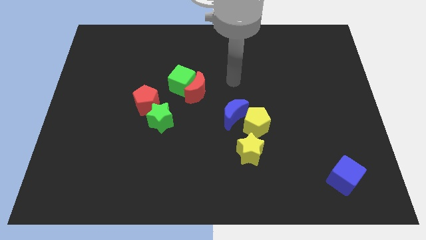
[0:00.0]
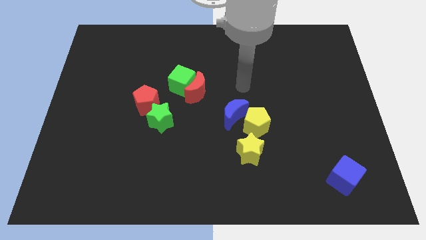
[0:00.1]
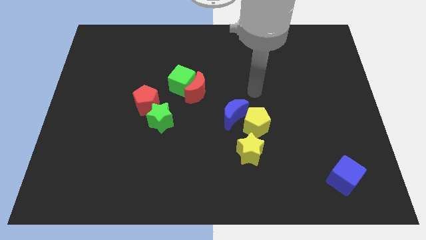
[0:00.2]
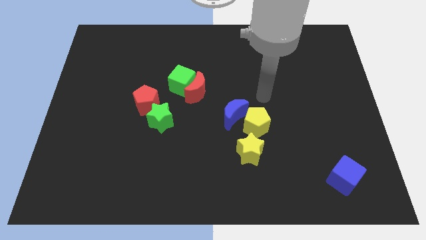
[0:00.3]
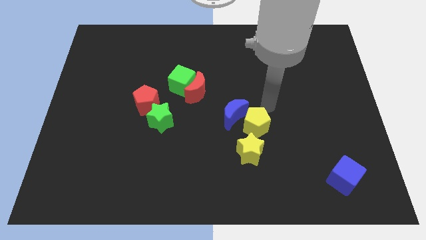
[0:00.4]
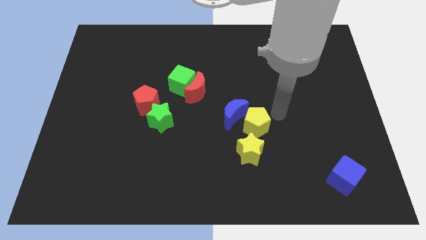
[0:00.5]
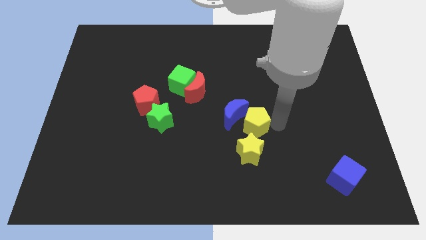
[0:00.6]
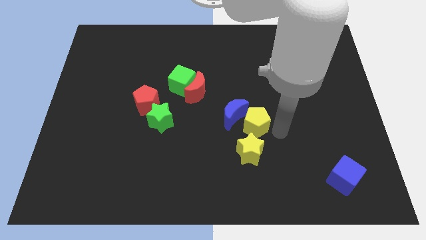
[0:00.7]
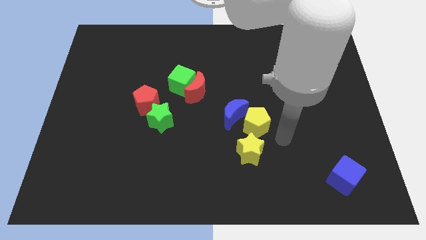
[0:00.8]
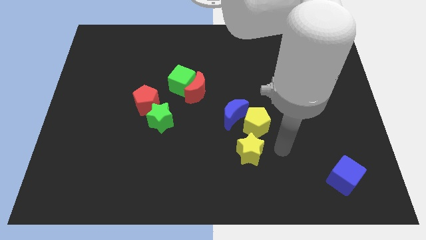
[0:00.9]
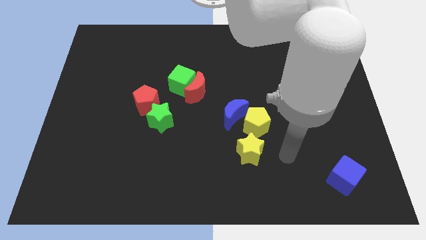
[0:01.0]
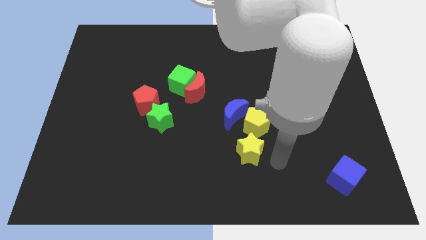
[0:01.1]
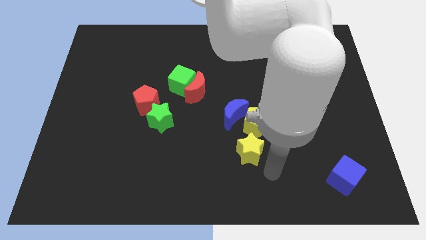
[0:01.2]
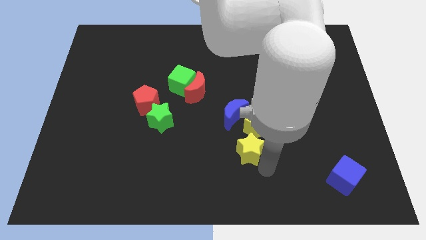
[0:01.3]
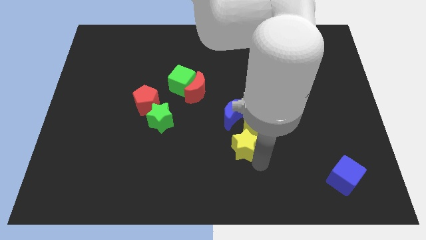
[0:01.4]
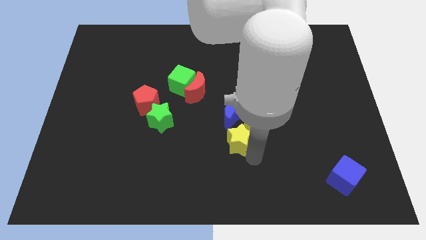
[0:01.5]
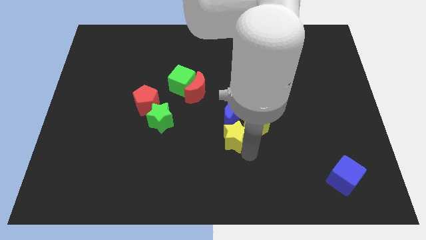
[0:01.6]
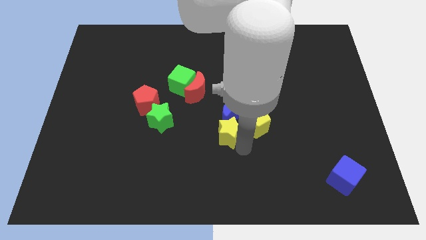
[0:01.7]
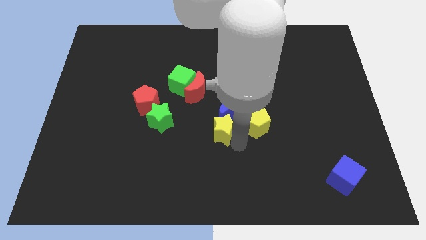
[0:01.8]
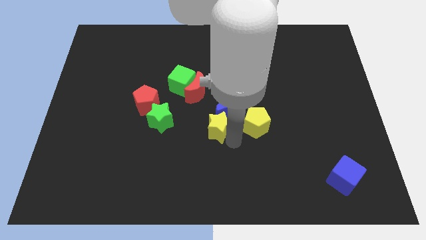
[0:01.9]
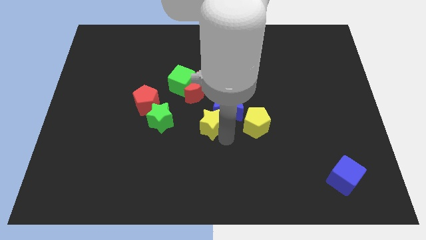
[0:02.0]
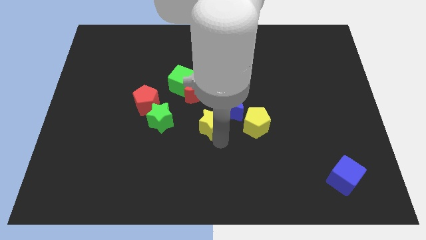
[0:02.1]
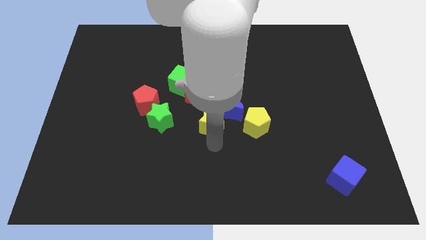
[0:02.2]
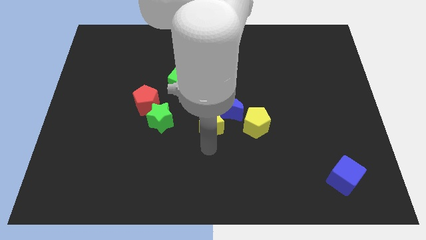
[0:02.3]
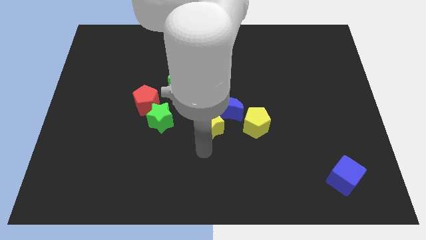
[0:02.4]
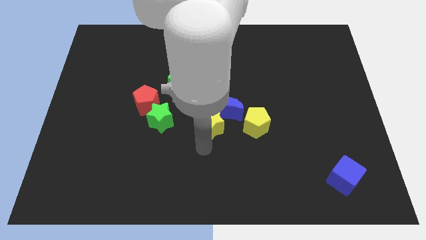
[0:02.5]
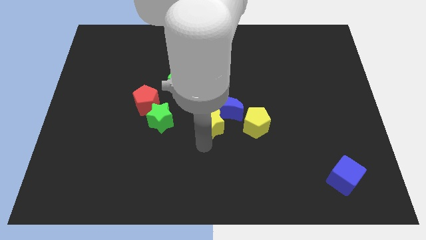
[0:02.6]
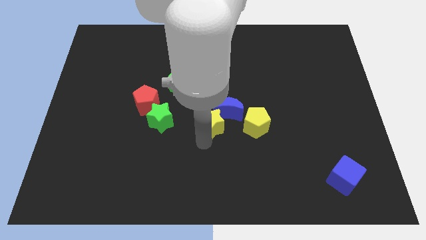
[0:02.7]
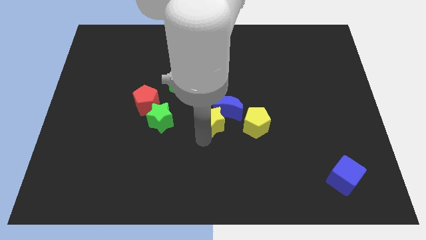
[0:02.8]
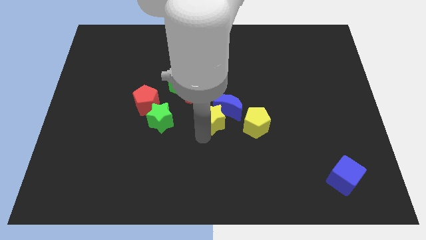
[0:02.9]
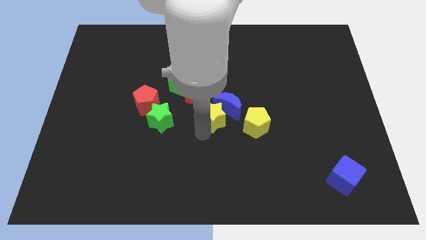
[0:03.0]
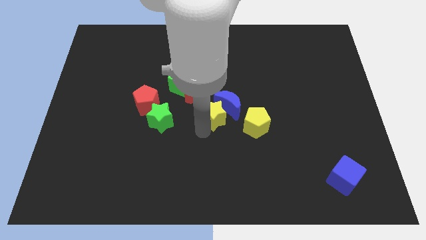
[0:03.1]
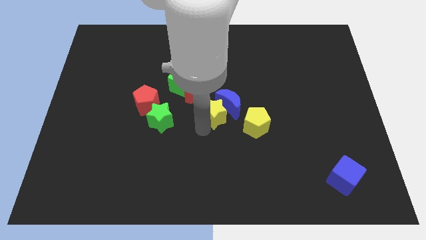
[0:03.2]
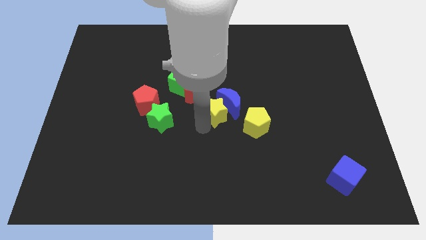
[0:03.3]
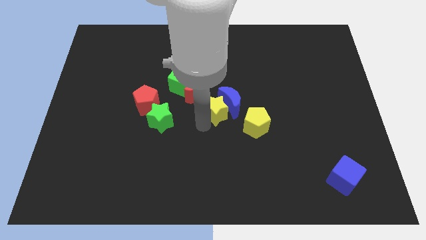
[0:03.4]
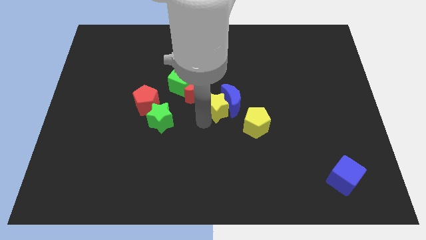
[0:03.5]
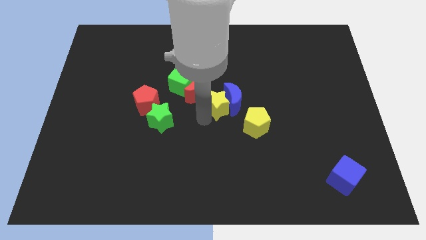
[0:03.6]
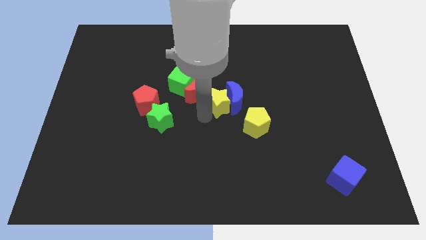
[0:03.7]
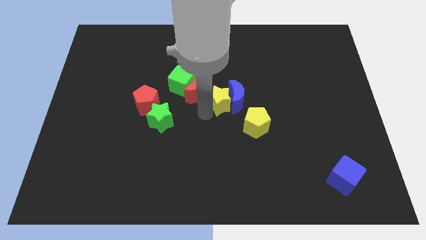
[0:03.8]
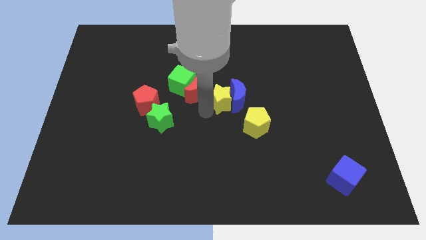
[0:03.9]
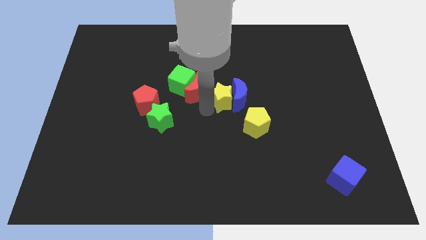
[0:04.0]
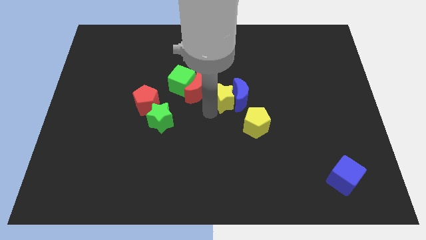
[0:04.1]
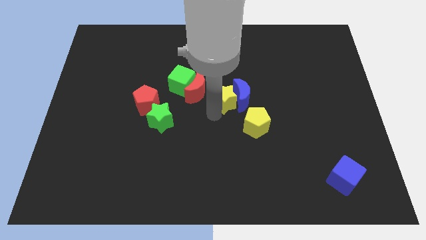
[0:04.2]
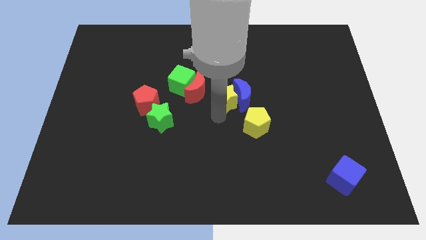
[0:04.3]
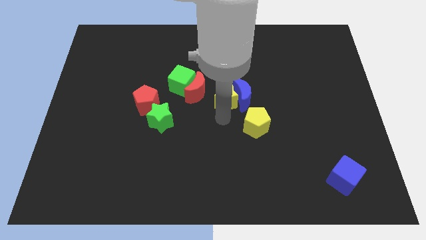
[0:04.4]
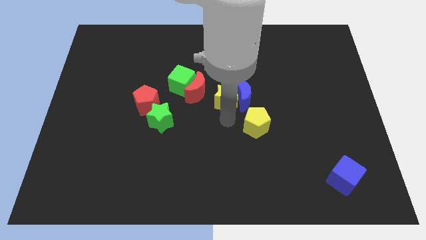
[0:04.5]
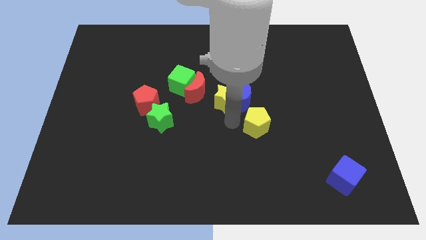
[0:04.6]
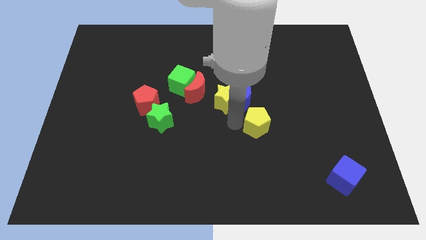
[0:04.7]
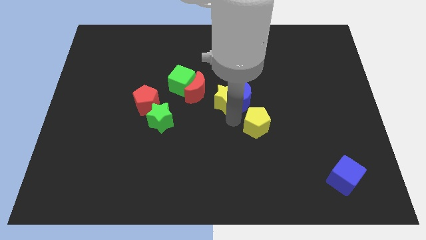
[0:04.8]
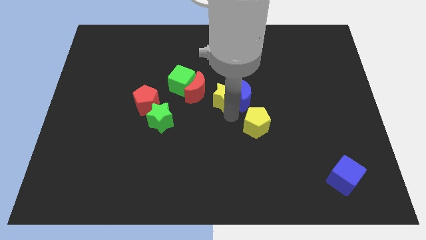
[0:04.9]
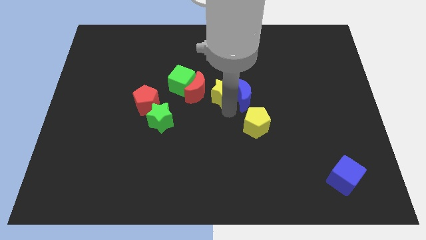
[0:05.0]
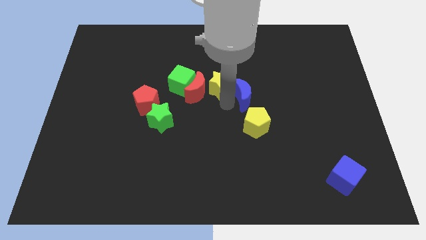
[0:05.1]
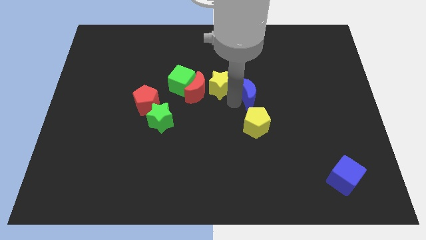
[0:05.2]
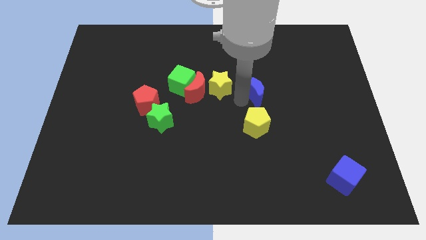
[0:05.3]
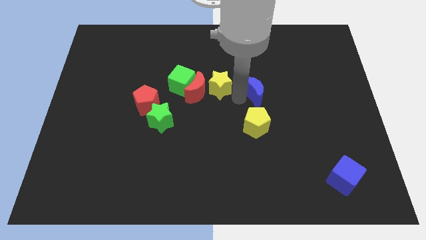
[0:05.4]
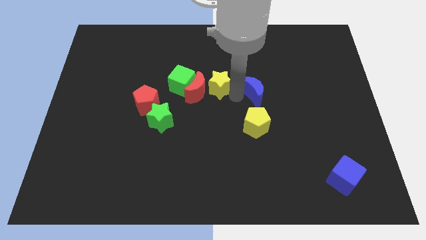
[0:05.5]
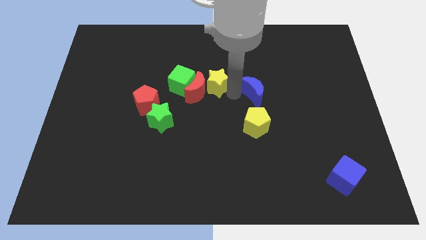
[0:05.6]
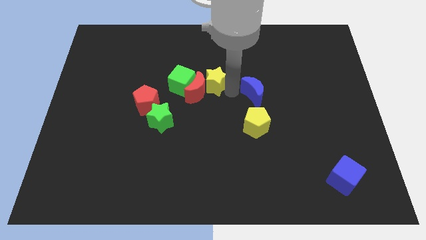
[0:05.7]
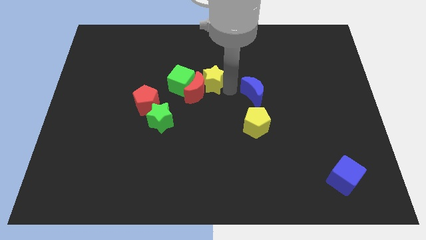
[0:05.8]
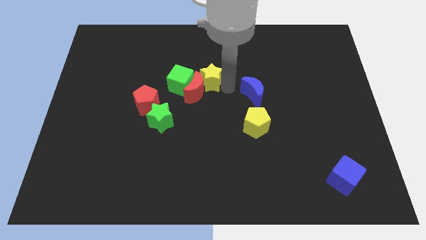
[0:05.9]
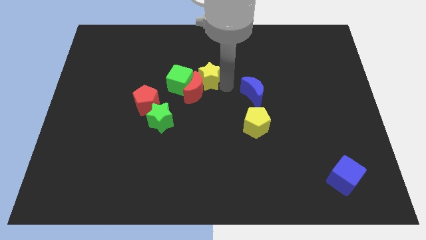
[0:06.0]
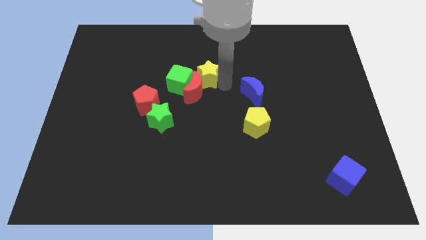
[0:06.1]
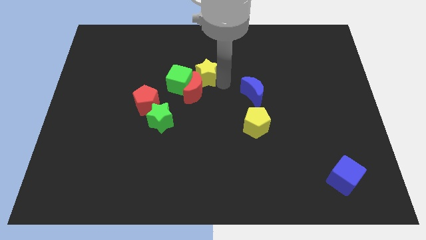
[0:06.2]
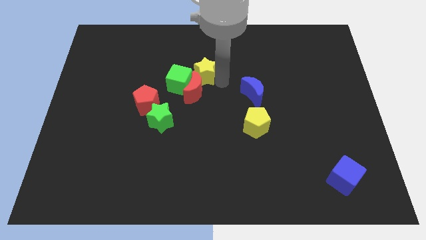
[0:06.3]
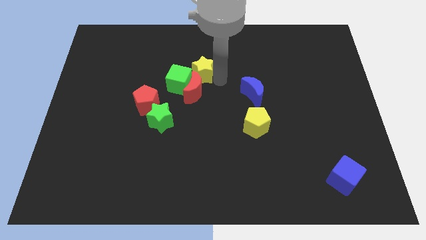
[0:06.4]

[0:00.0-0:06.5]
push the yellow star diagonally up and to the left

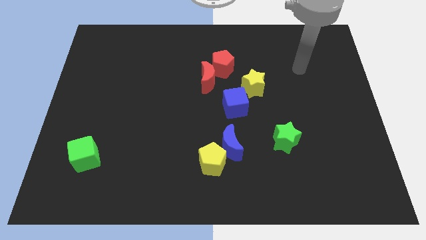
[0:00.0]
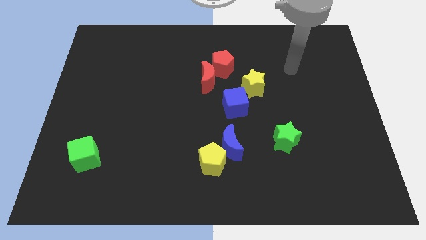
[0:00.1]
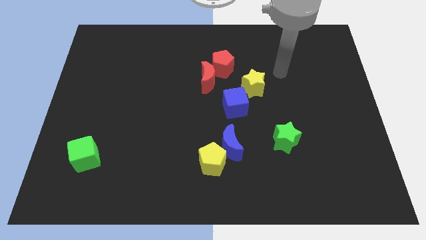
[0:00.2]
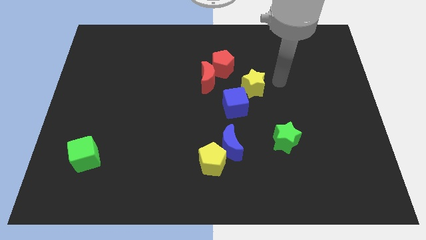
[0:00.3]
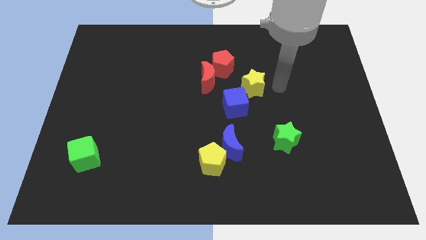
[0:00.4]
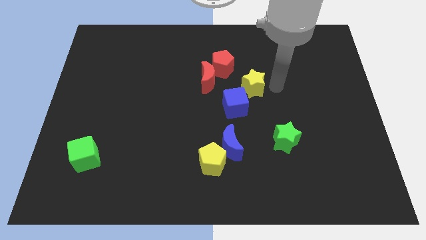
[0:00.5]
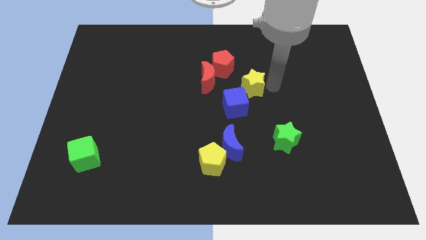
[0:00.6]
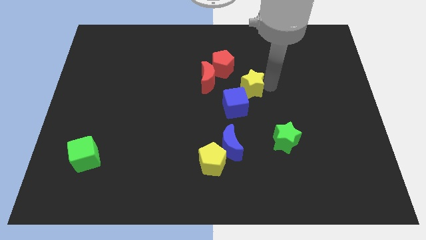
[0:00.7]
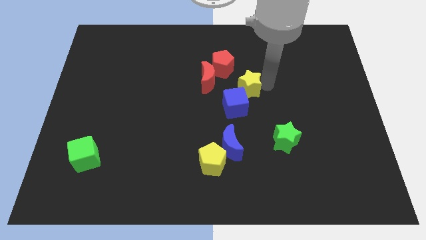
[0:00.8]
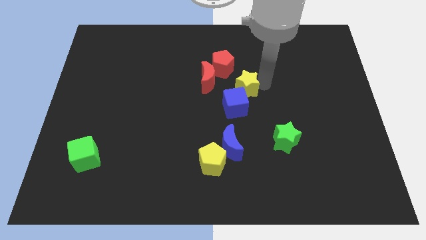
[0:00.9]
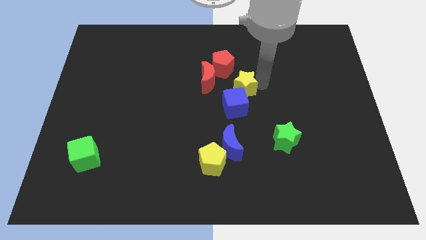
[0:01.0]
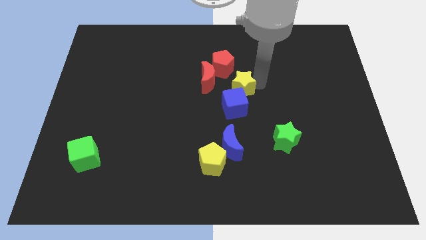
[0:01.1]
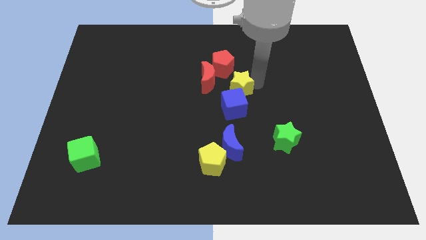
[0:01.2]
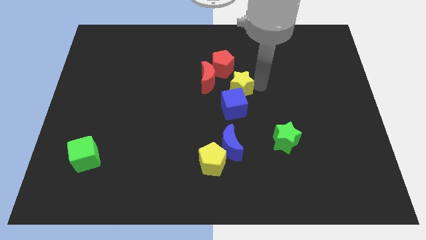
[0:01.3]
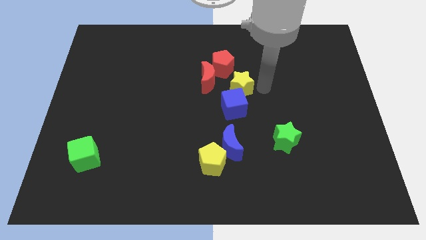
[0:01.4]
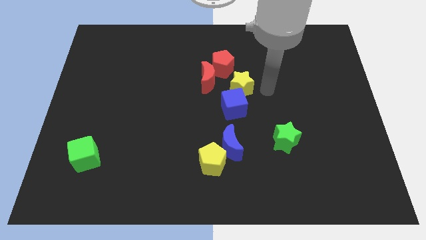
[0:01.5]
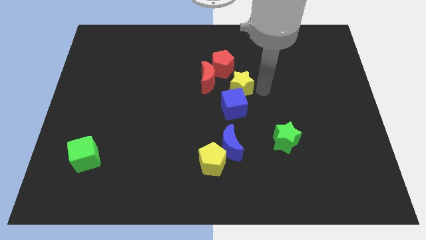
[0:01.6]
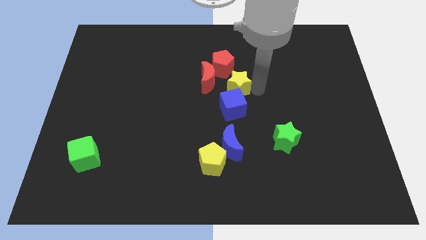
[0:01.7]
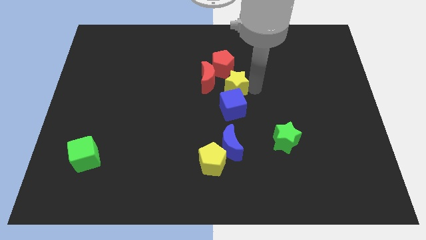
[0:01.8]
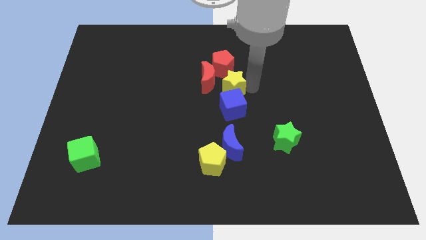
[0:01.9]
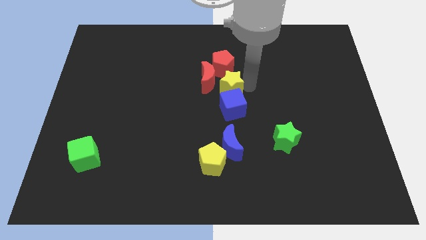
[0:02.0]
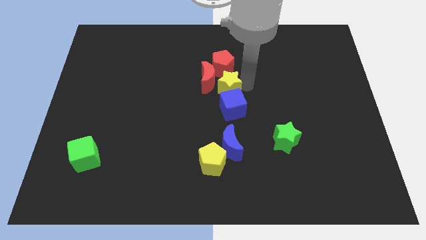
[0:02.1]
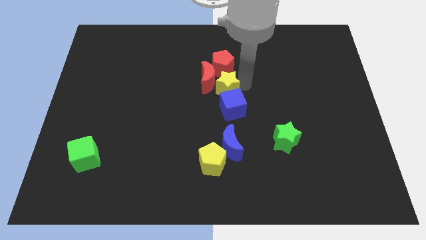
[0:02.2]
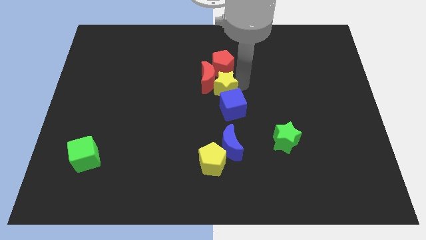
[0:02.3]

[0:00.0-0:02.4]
slide the yellow star a bit to the left
